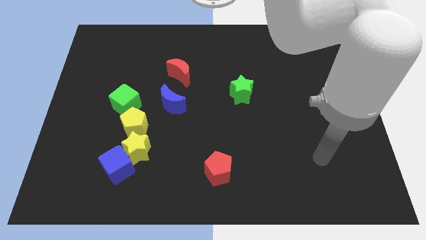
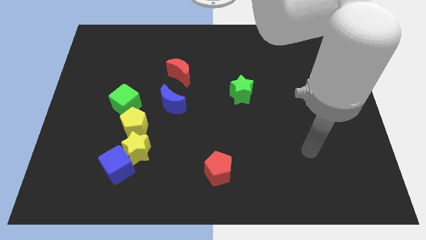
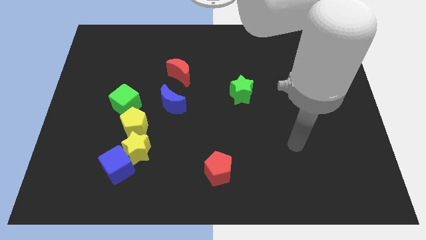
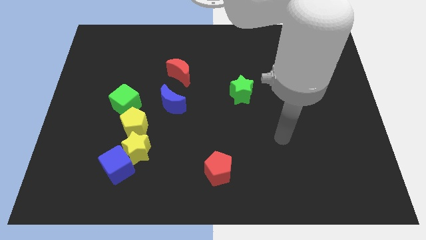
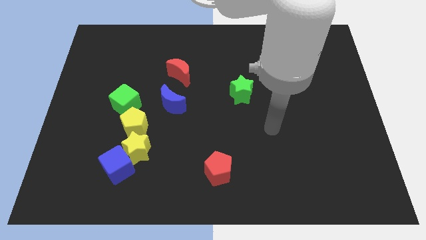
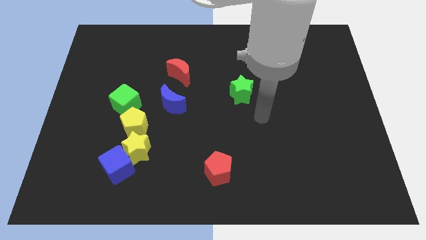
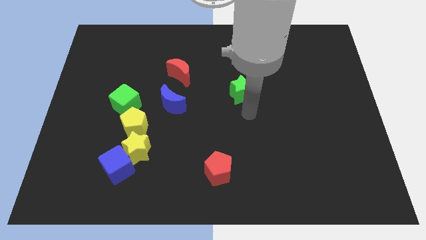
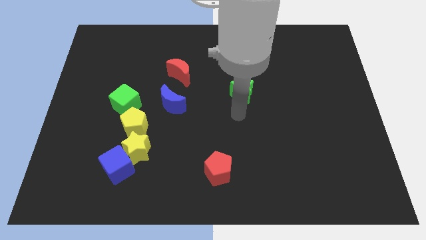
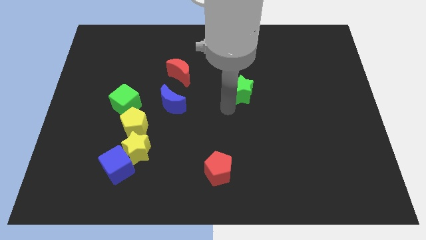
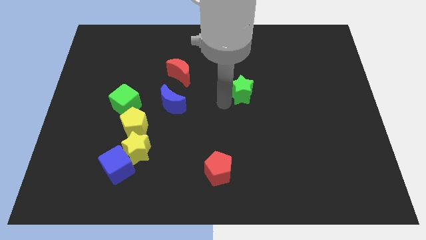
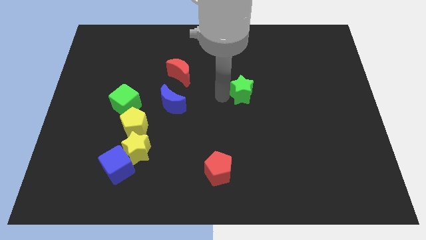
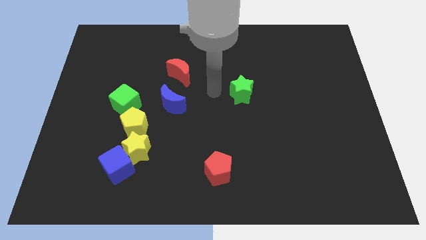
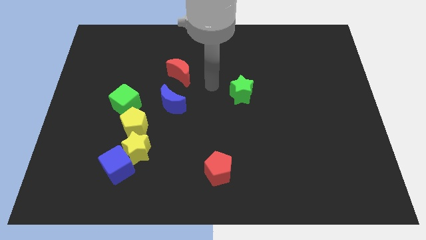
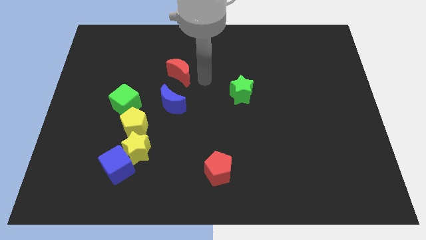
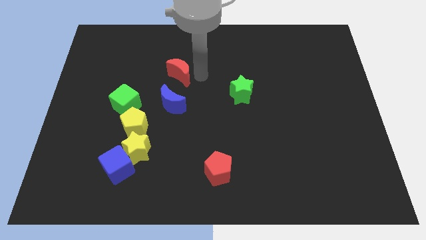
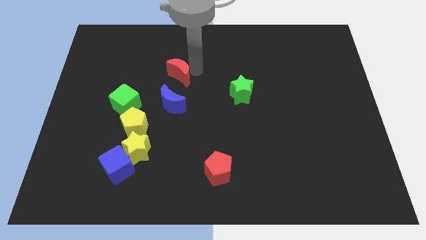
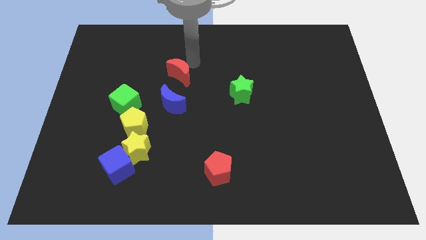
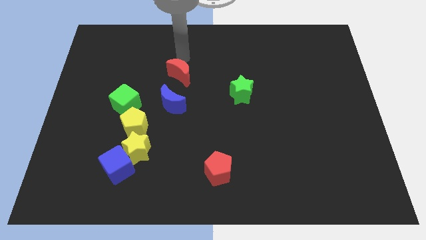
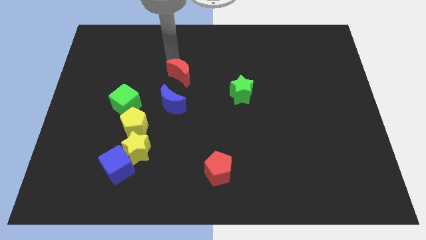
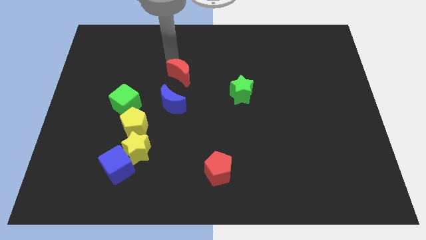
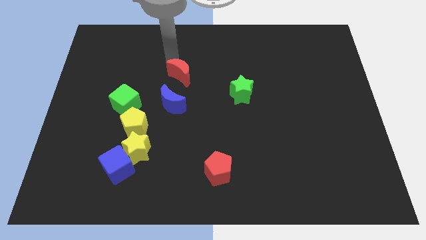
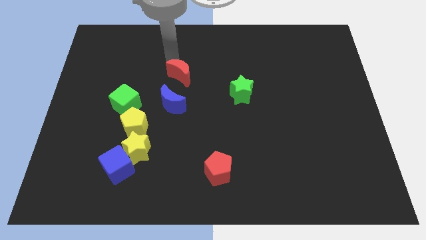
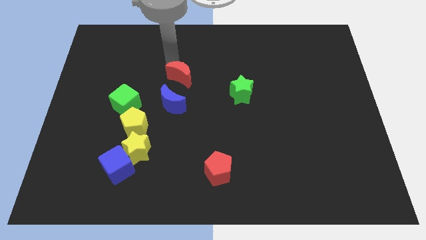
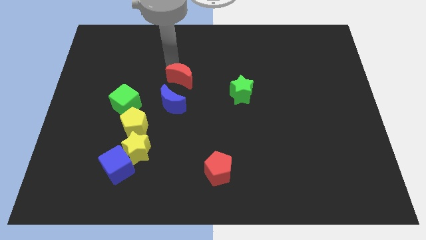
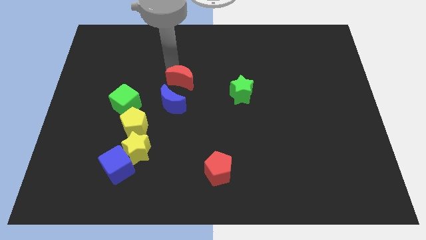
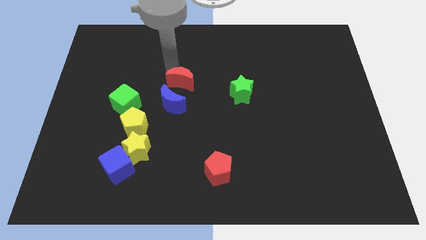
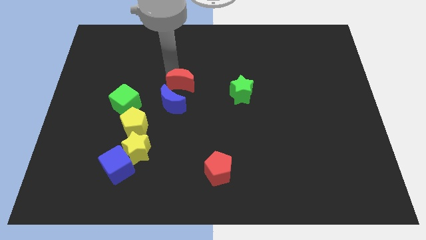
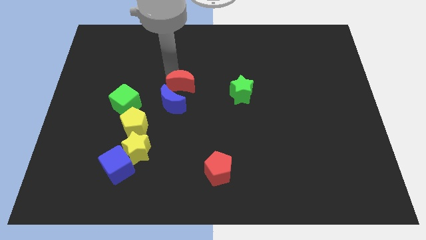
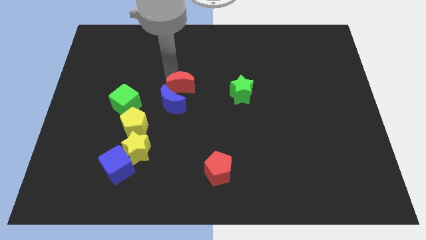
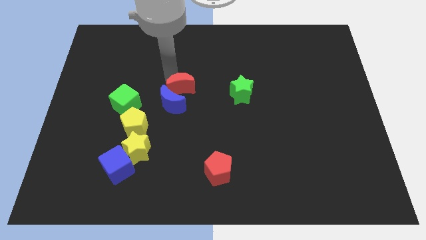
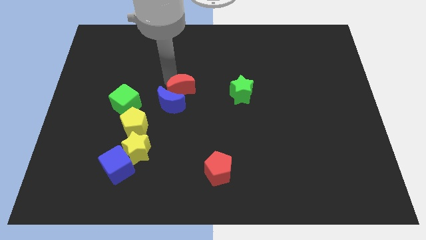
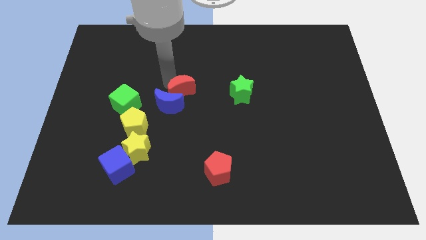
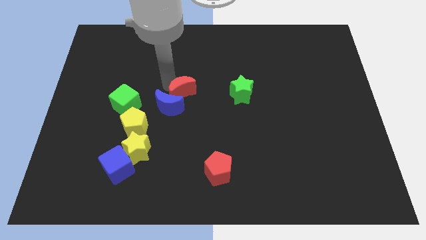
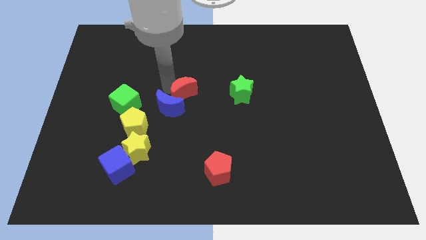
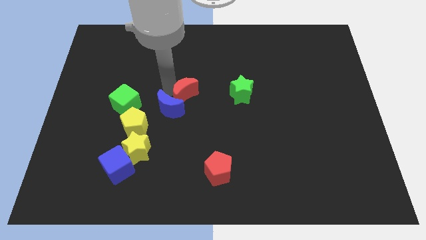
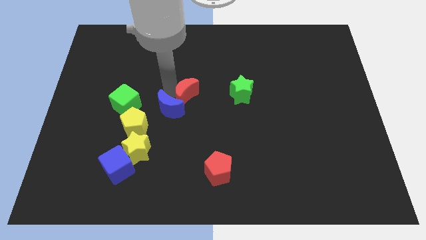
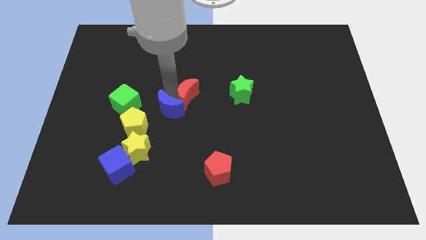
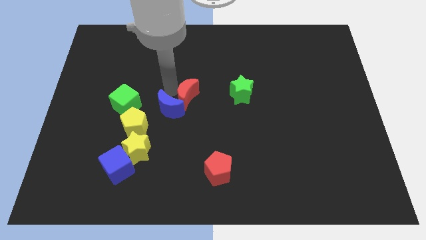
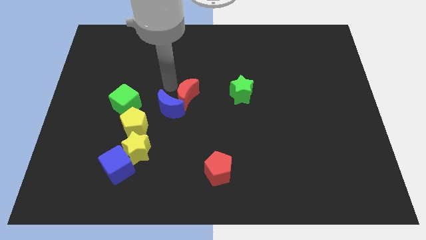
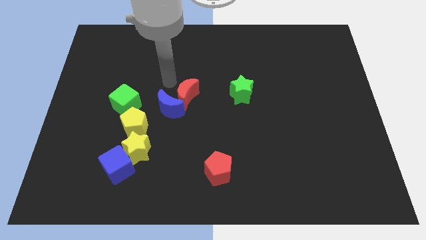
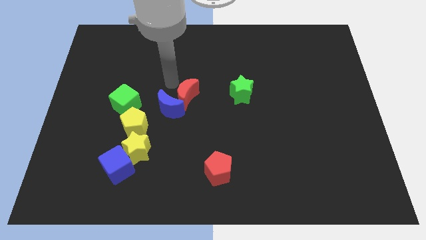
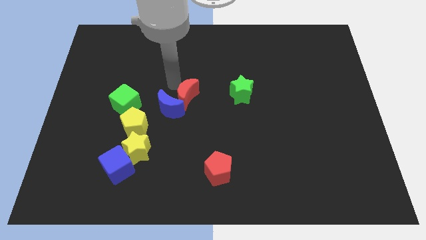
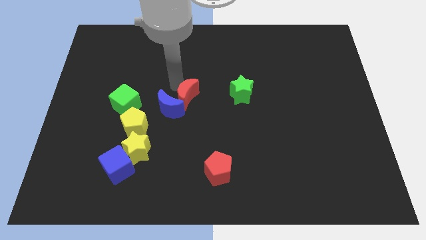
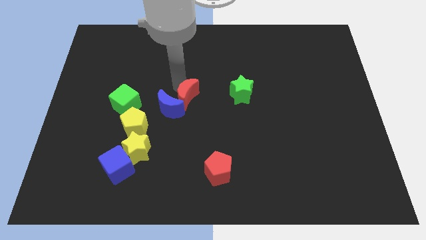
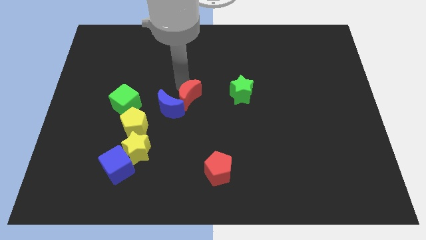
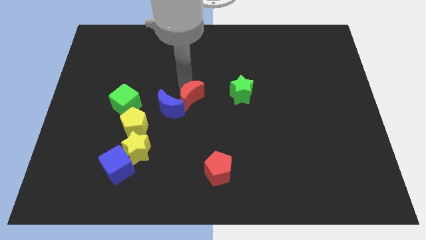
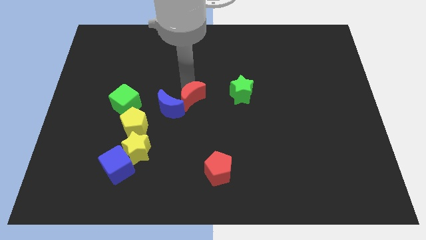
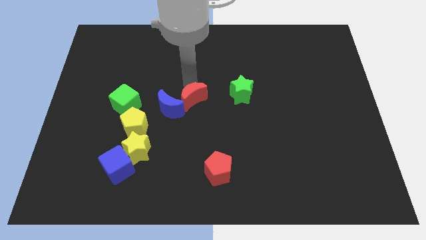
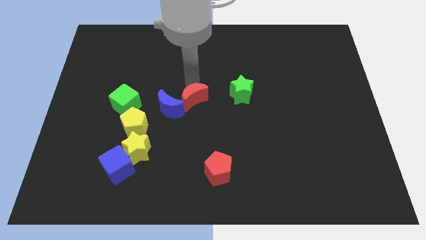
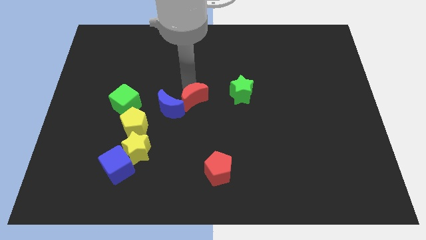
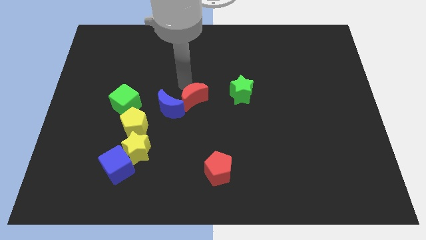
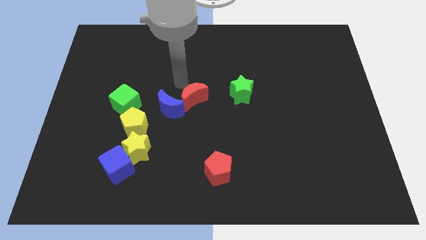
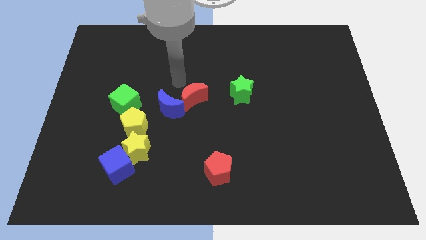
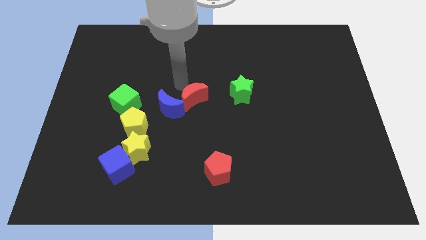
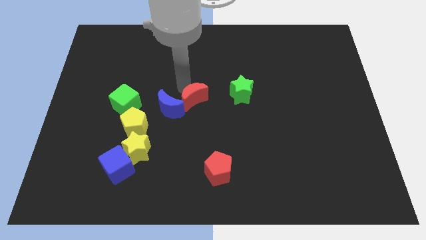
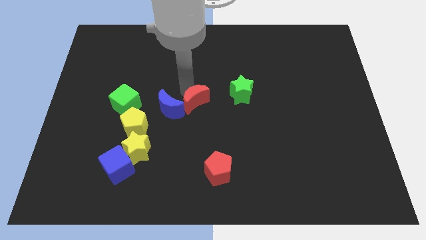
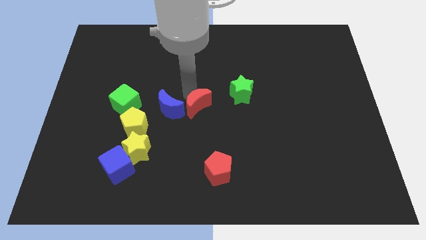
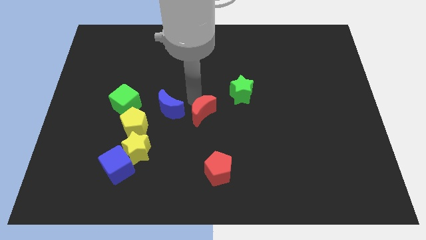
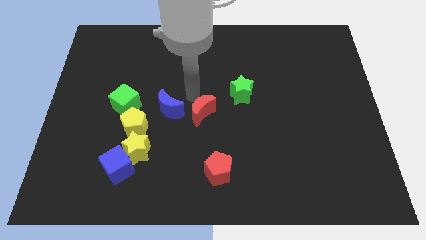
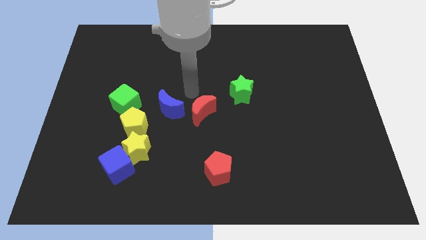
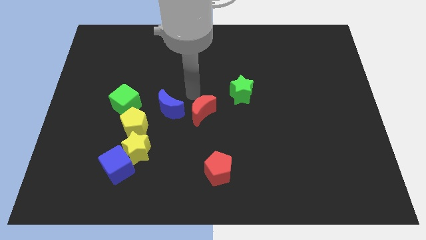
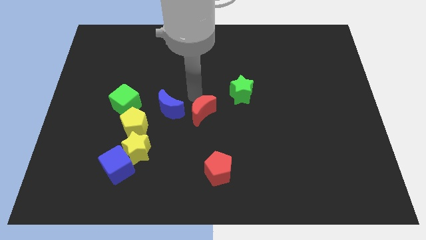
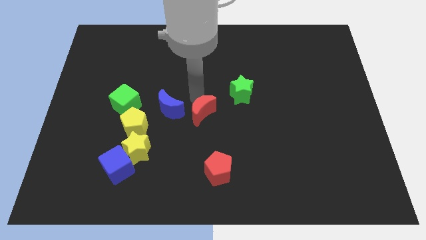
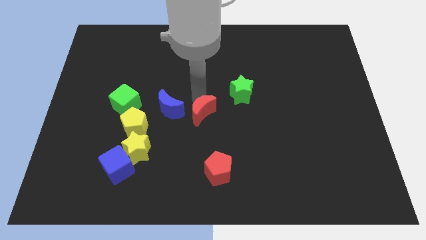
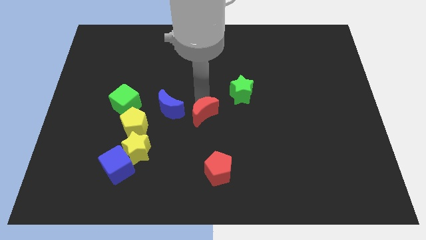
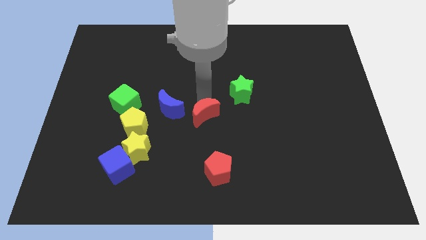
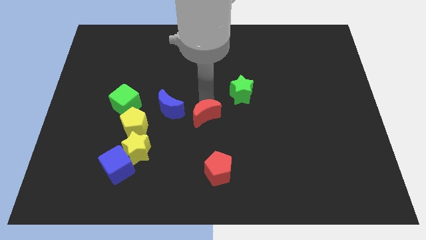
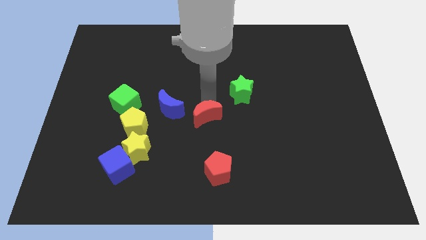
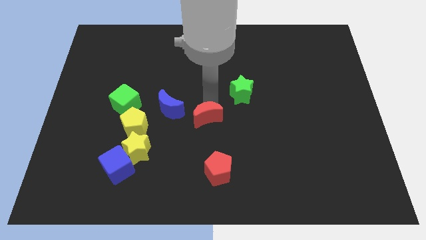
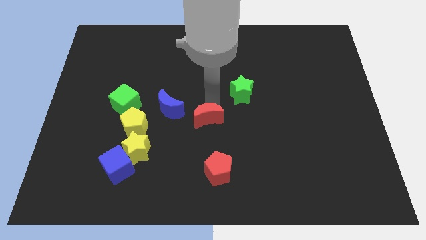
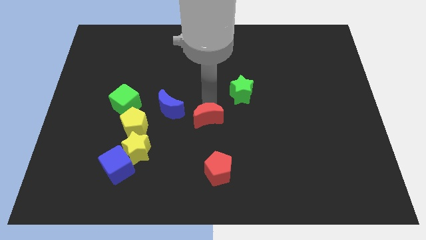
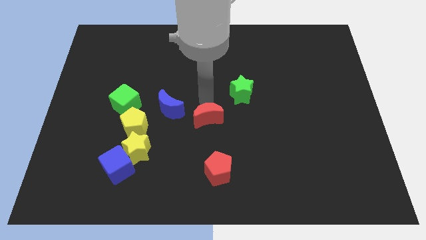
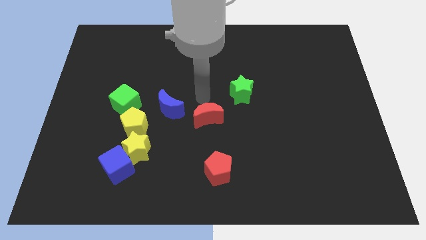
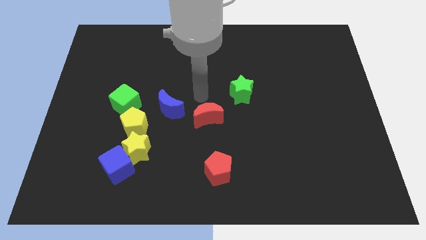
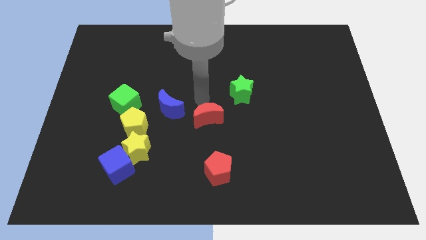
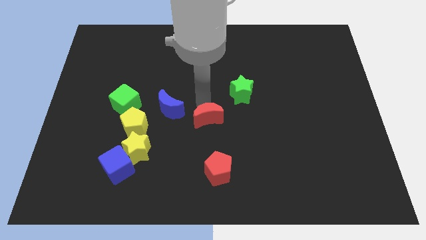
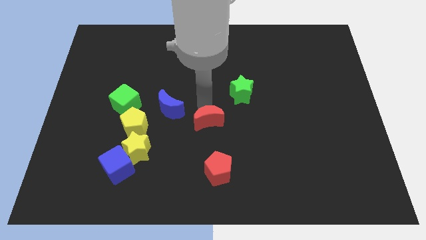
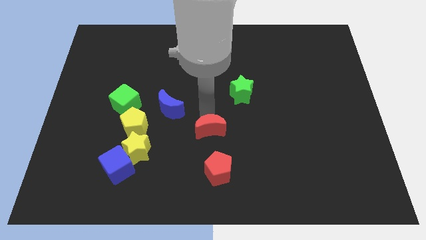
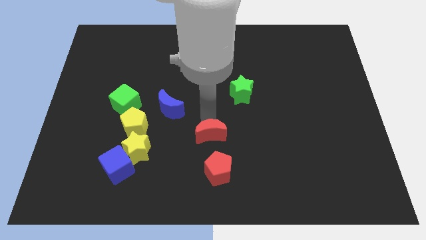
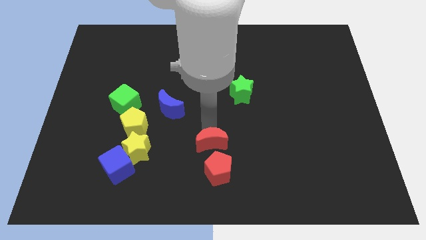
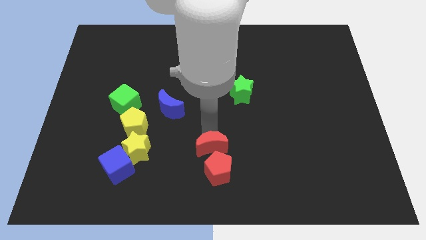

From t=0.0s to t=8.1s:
slide the red moon close to the red pentagon
